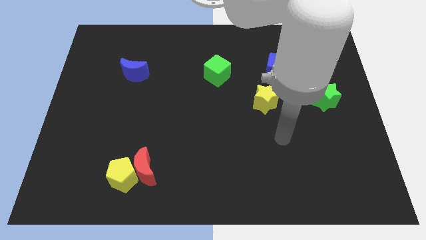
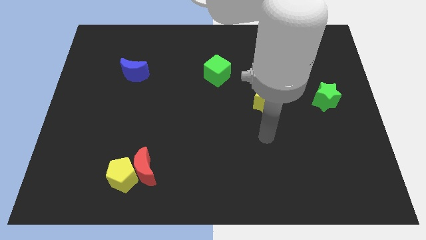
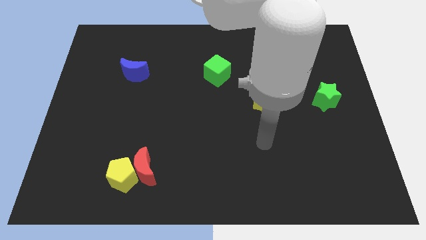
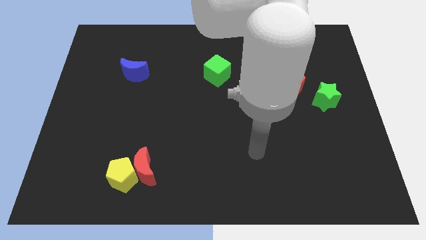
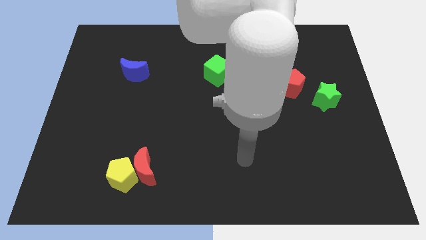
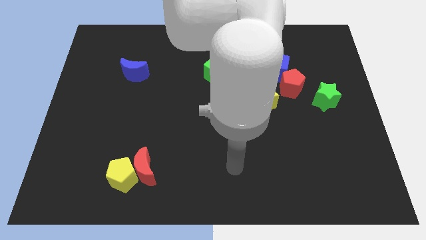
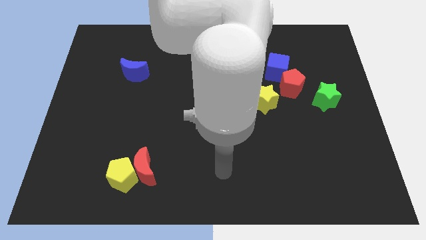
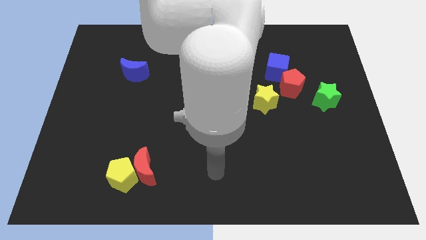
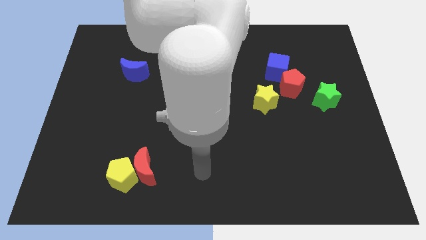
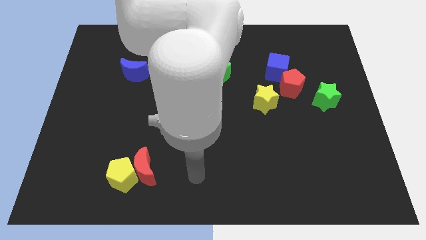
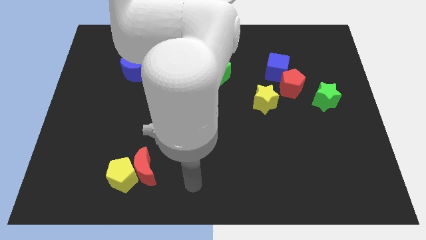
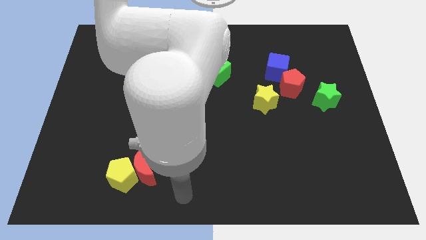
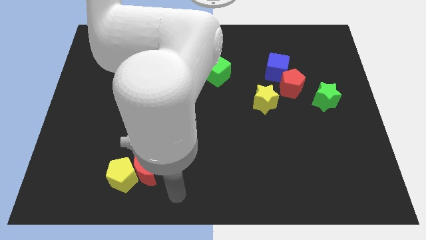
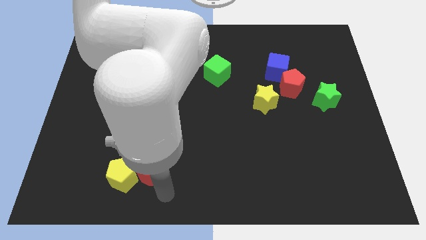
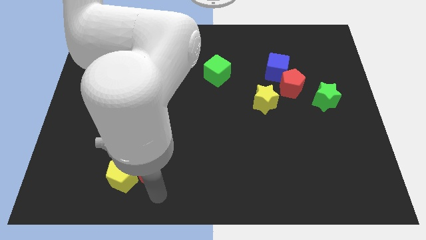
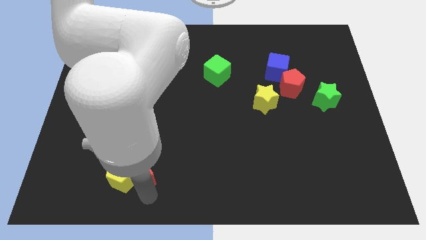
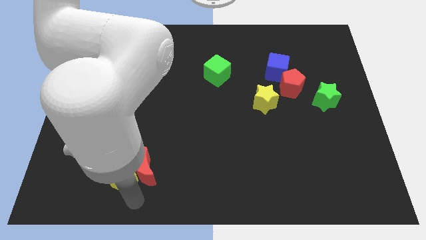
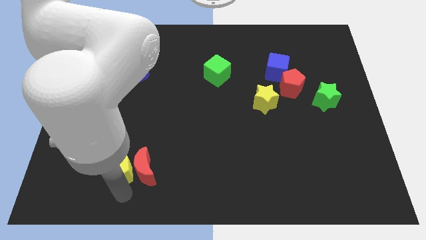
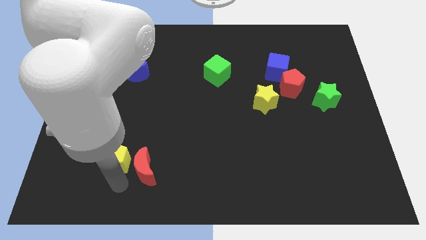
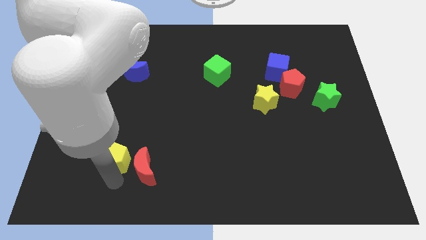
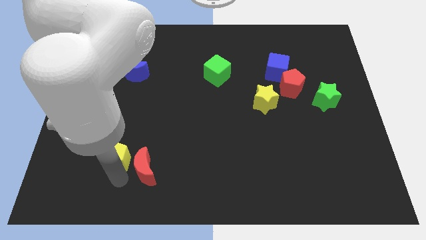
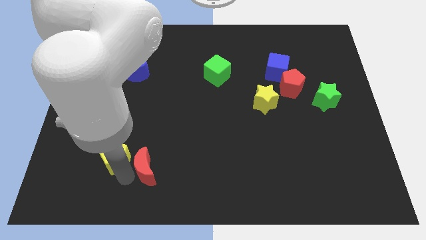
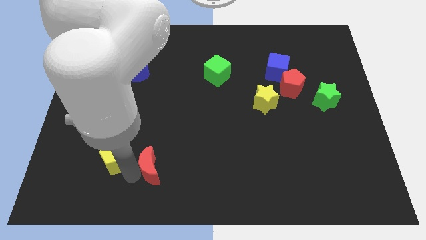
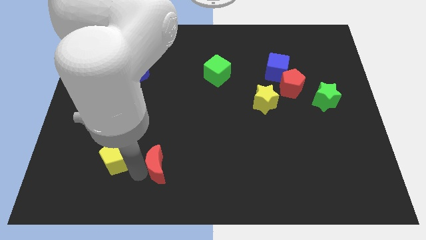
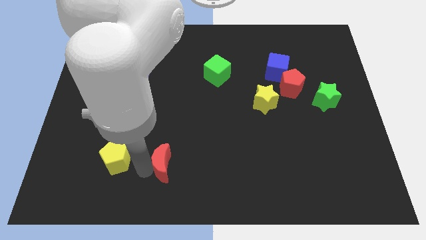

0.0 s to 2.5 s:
move the red moon away from the yellow pentagon

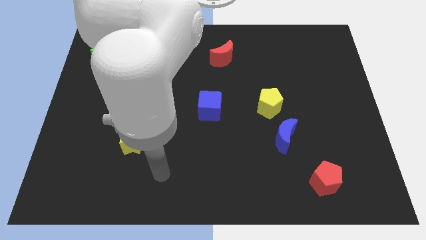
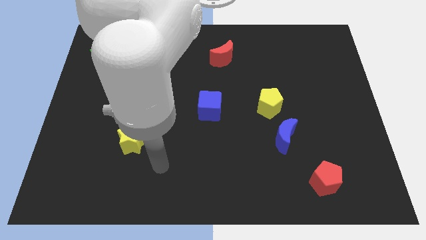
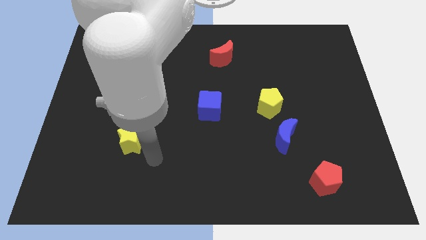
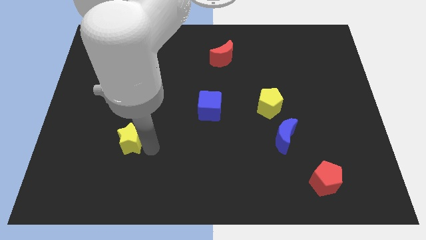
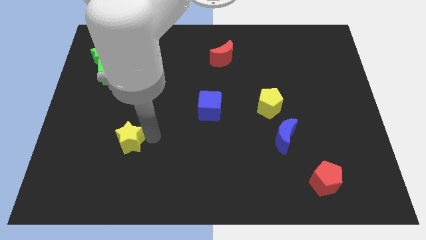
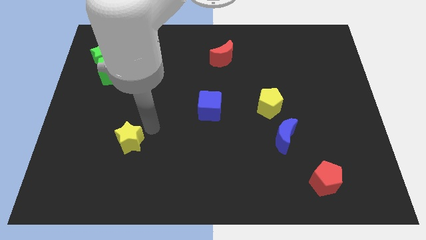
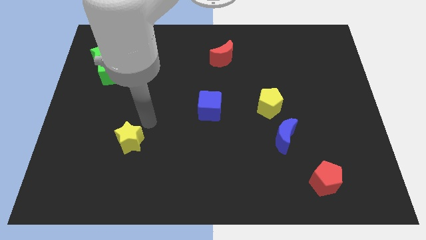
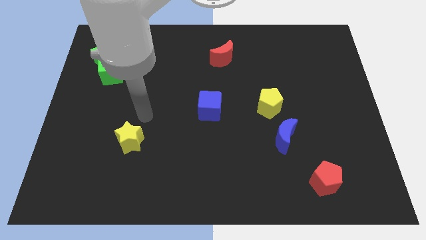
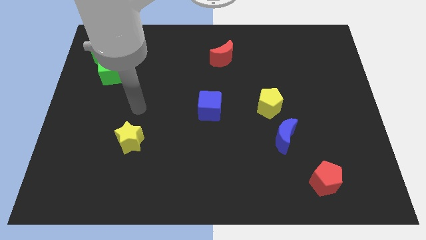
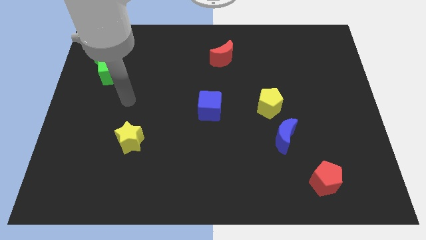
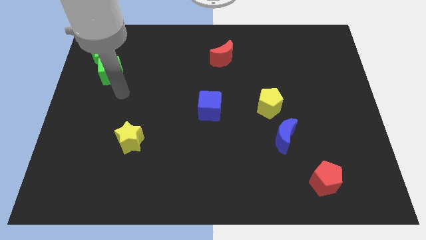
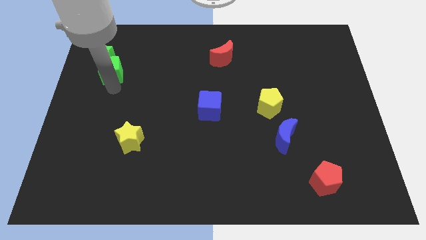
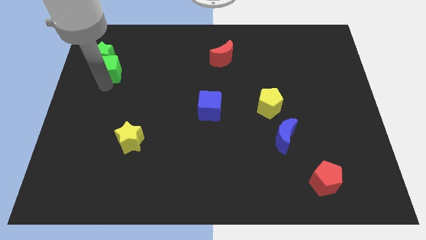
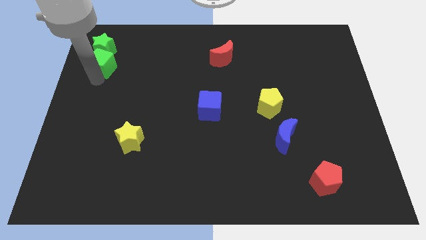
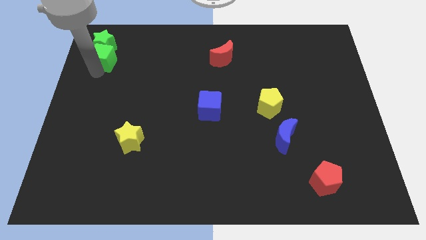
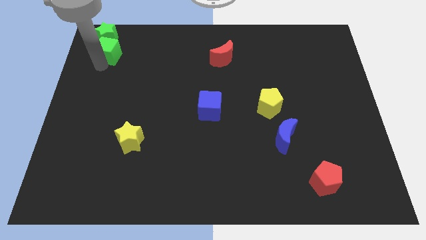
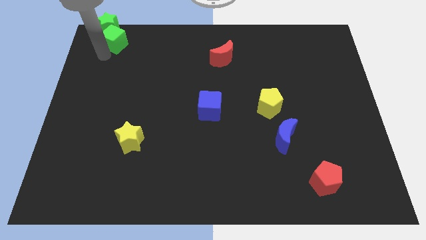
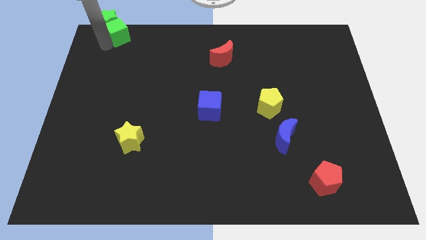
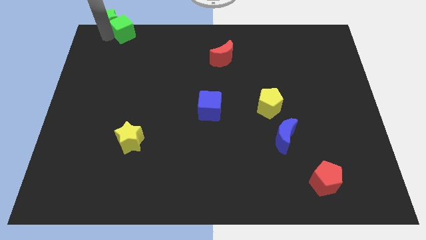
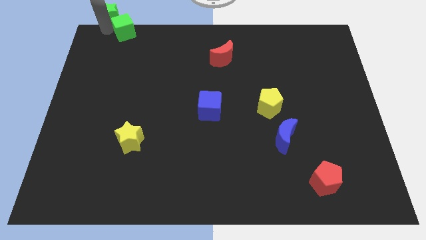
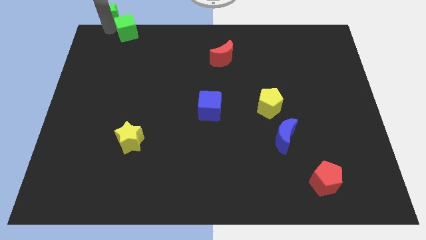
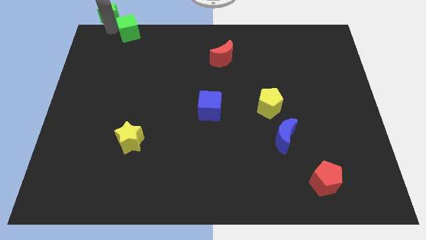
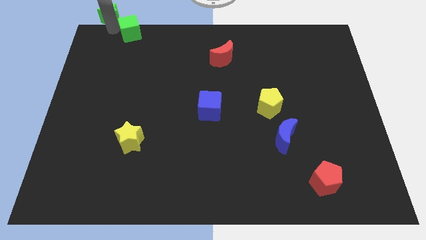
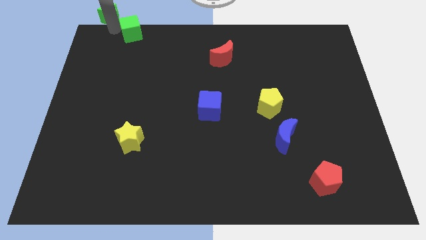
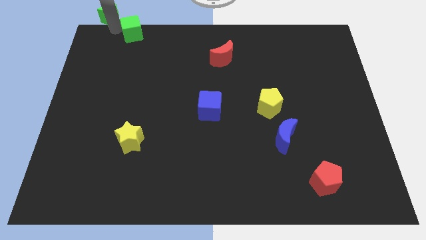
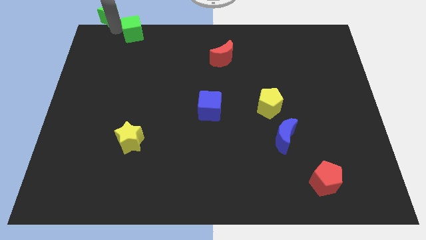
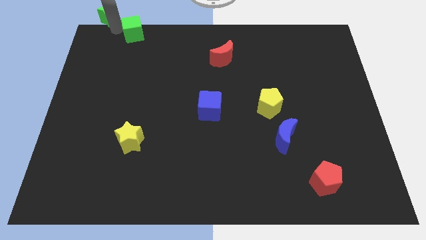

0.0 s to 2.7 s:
pull the green cube apart from the green star

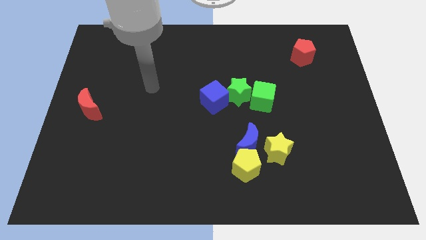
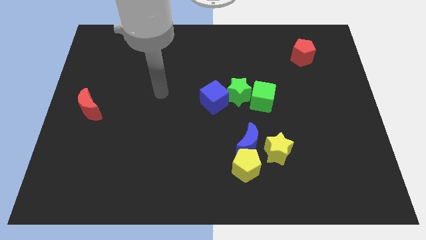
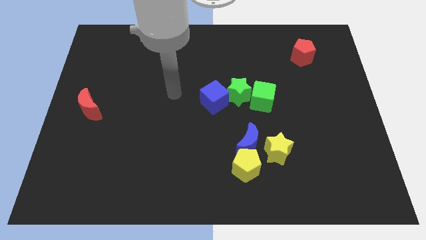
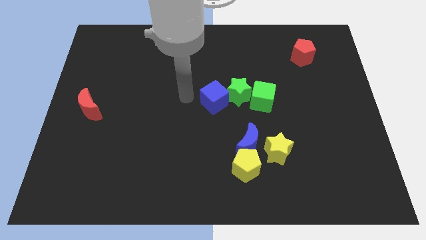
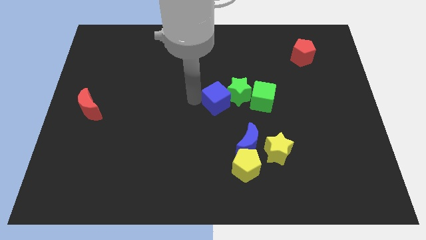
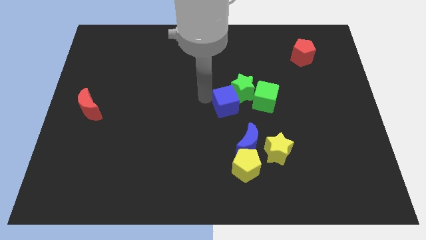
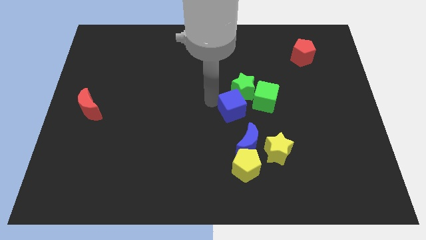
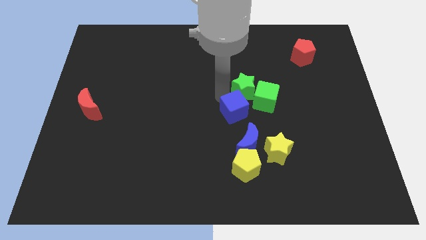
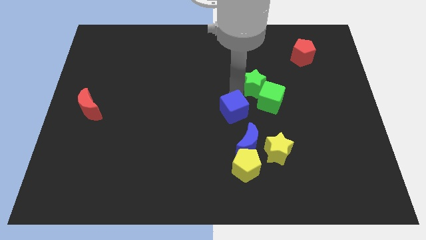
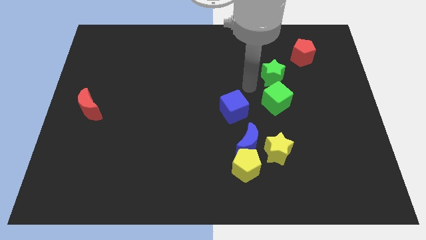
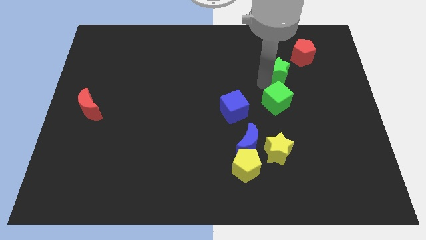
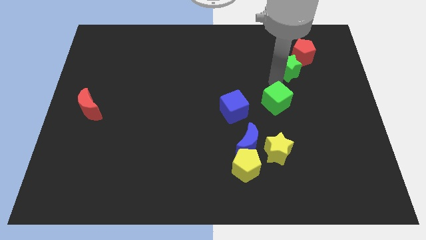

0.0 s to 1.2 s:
move the green cube away from the green star

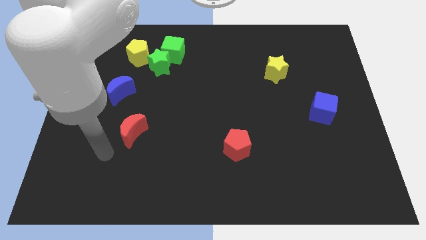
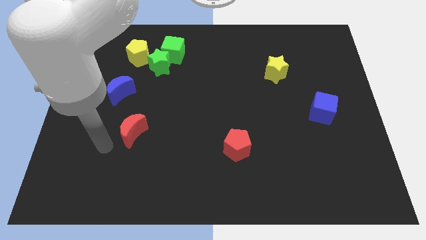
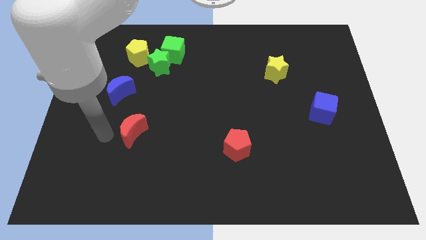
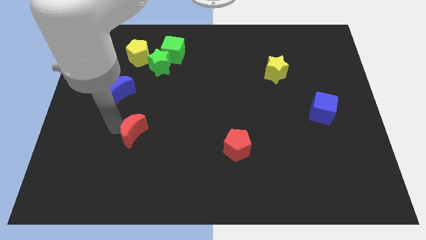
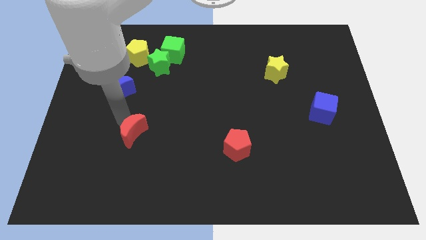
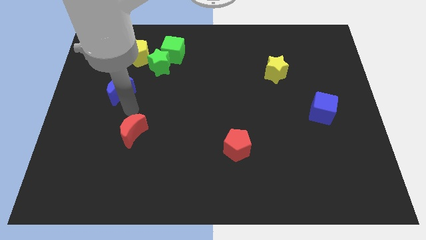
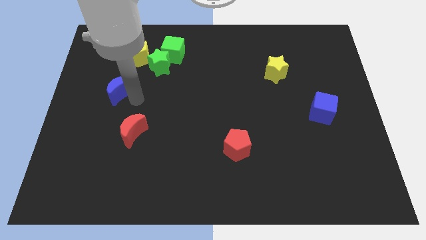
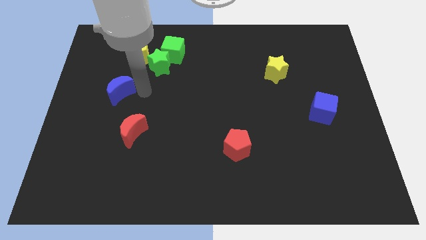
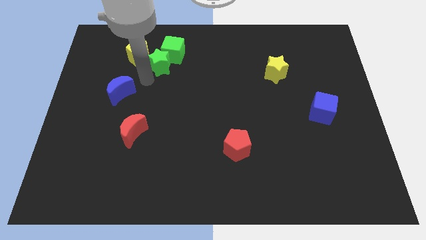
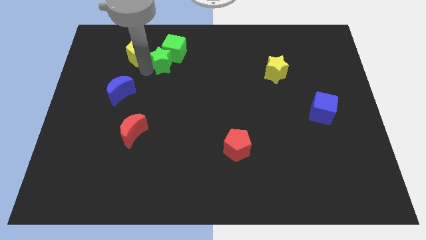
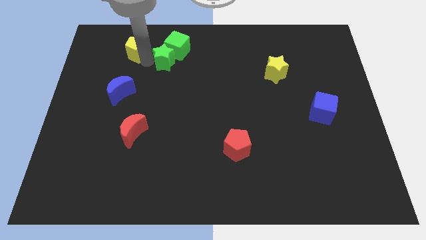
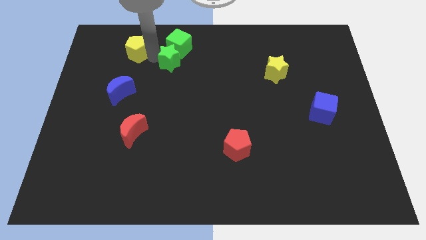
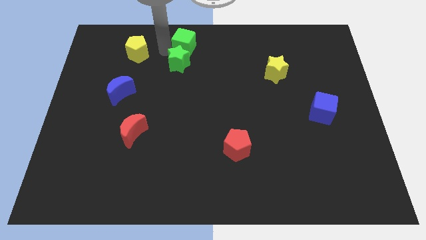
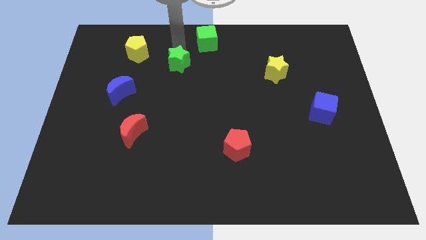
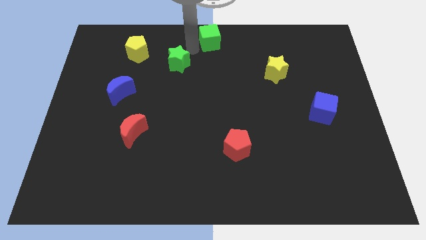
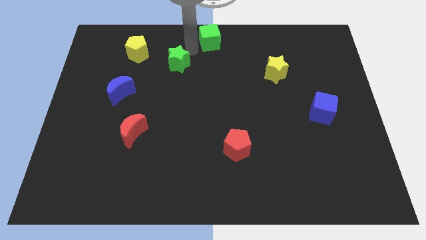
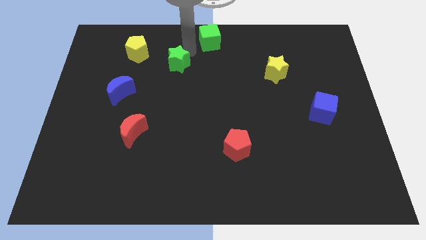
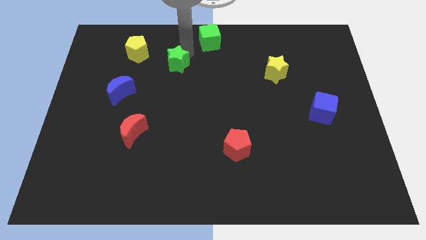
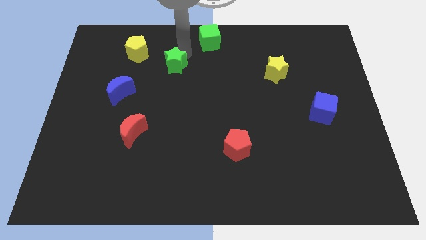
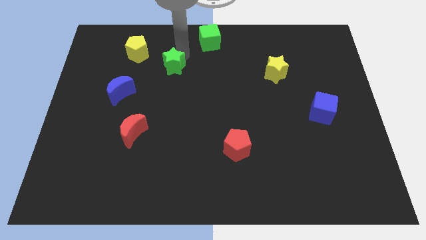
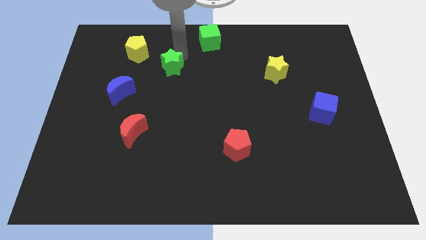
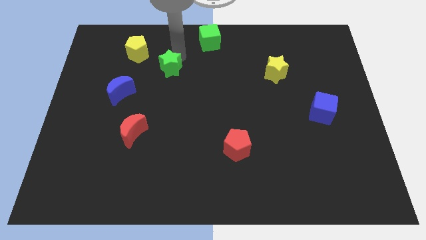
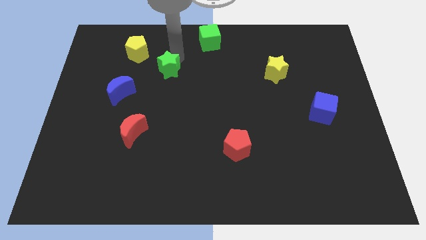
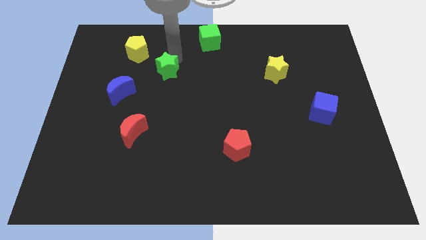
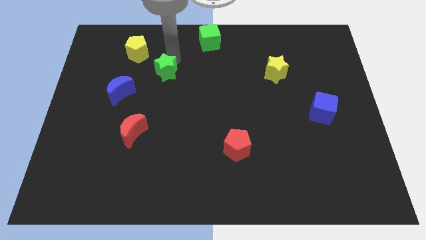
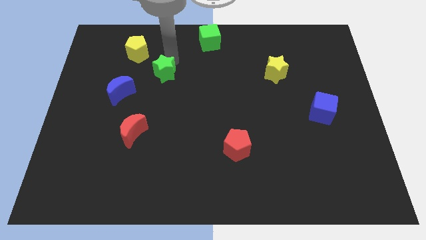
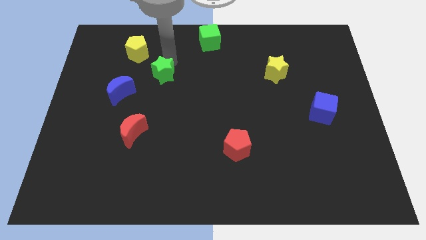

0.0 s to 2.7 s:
separate the green star from the green cube and yellow pentagon

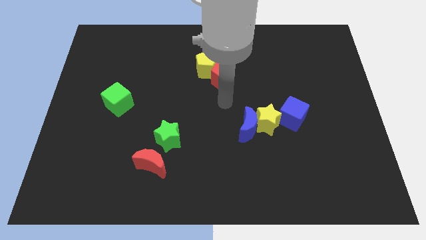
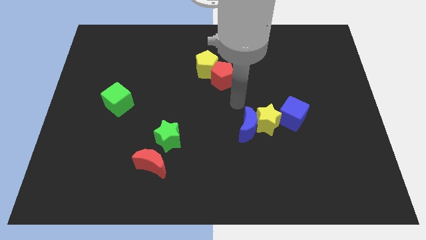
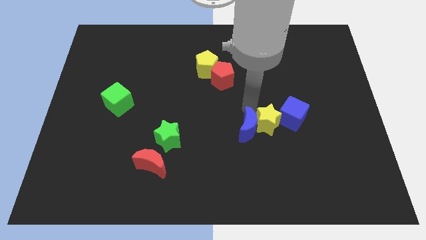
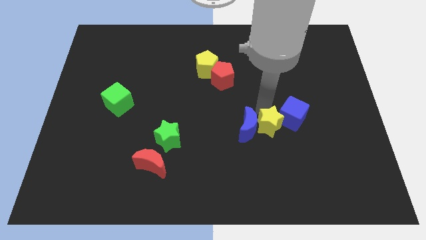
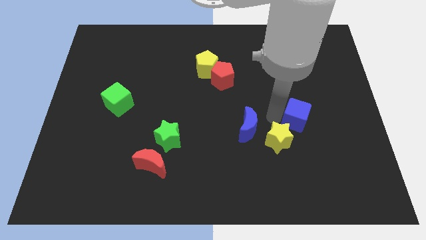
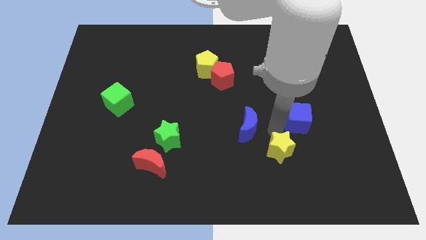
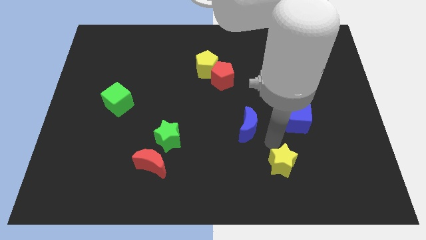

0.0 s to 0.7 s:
separate the blue moon from the yellow star
